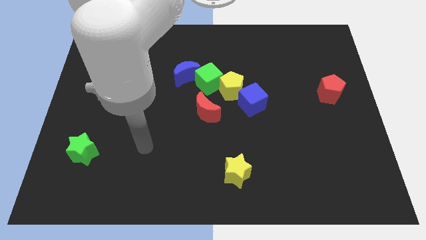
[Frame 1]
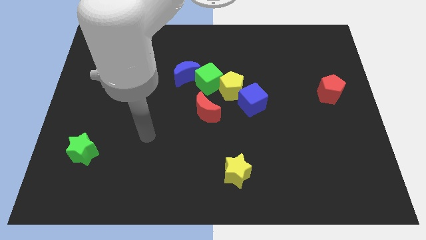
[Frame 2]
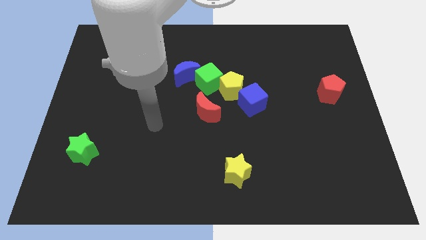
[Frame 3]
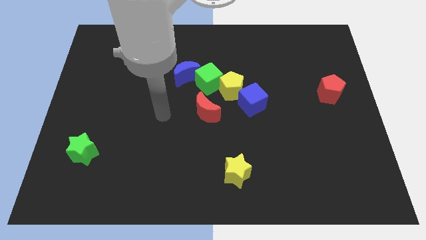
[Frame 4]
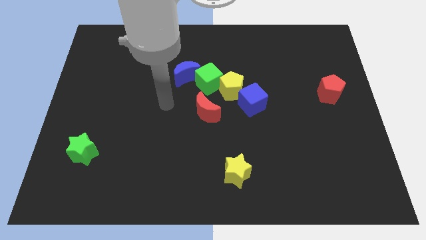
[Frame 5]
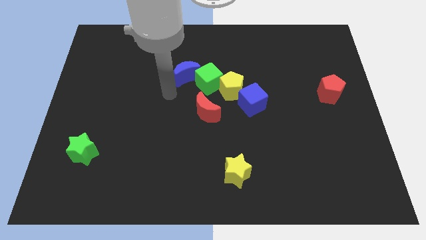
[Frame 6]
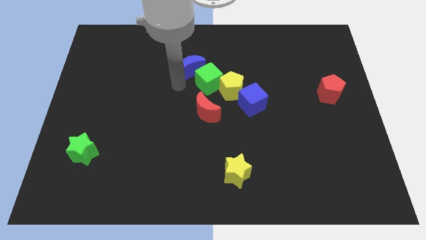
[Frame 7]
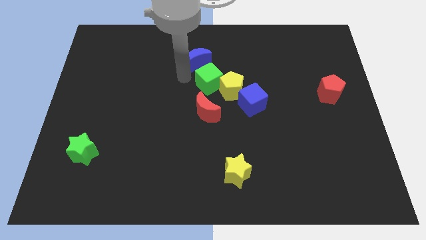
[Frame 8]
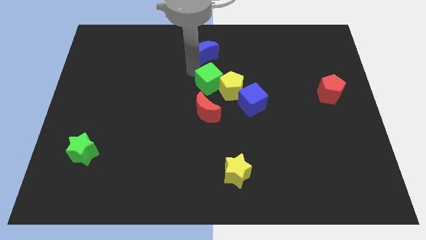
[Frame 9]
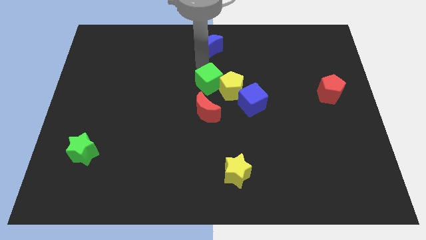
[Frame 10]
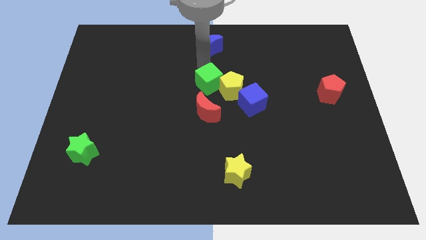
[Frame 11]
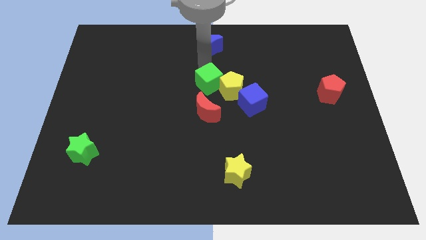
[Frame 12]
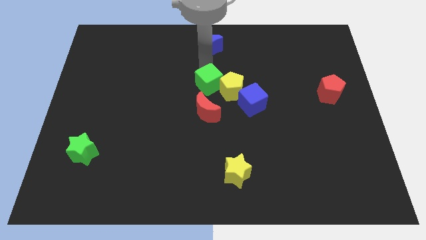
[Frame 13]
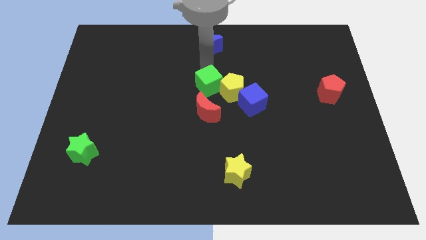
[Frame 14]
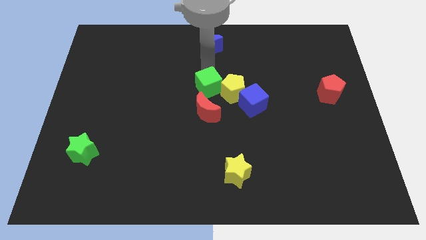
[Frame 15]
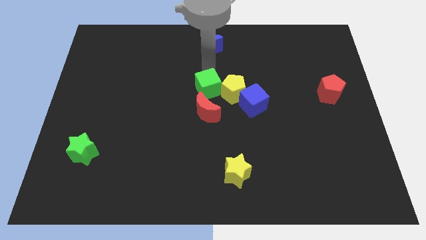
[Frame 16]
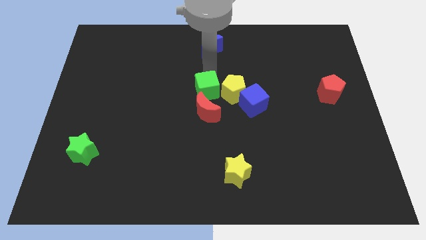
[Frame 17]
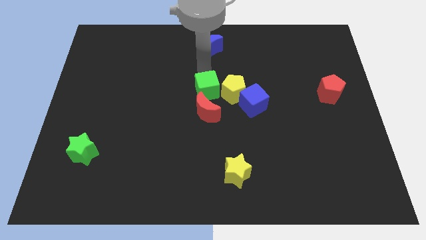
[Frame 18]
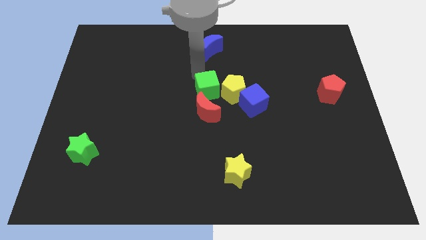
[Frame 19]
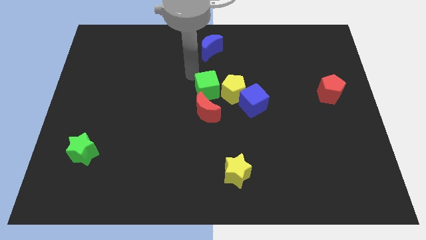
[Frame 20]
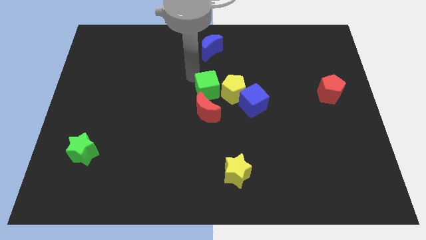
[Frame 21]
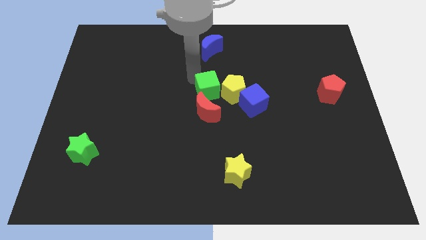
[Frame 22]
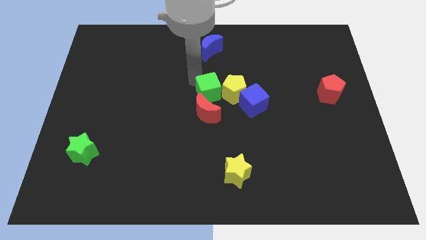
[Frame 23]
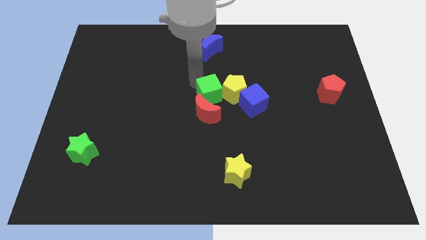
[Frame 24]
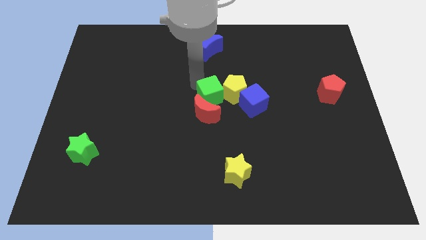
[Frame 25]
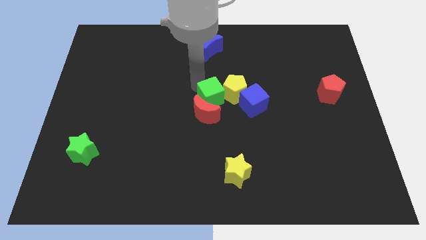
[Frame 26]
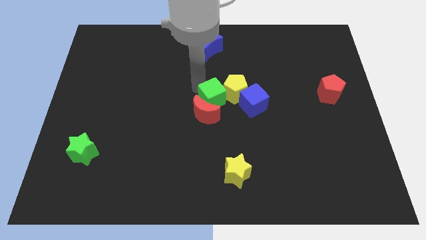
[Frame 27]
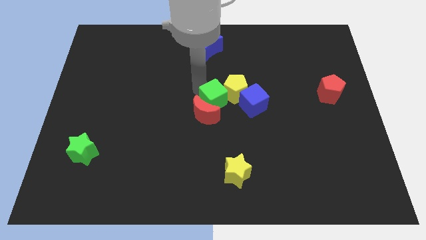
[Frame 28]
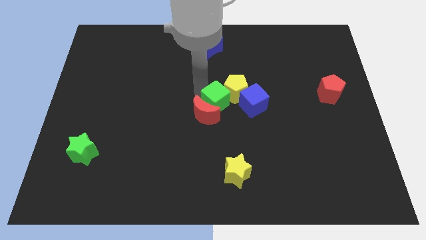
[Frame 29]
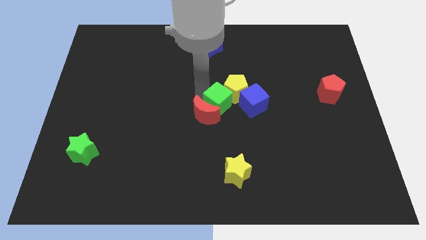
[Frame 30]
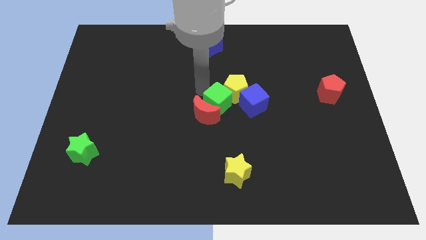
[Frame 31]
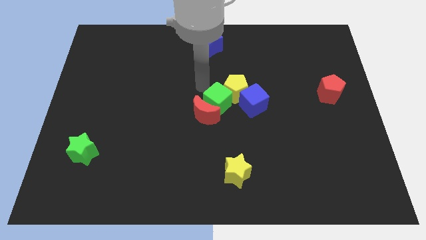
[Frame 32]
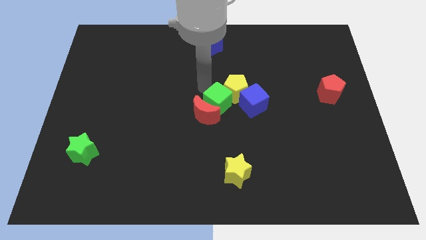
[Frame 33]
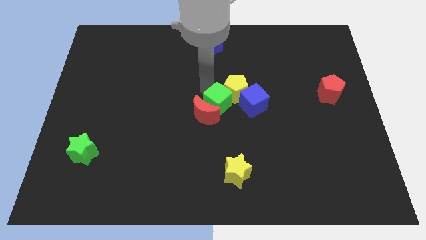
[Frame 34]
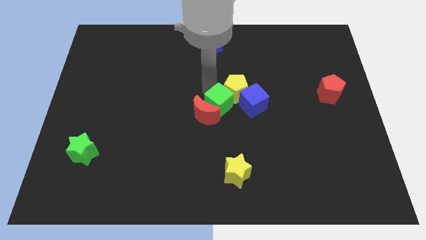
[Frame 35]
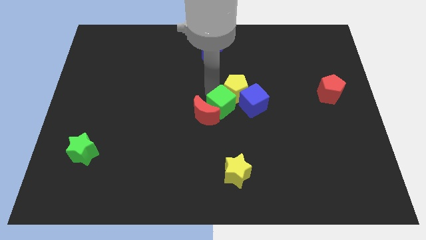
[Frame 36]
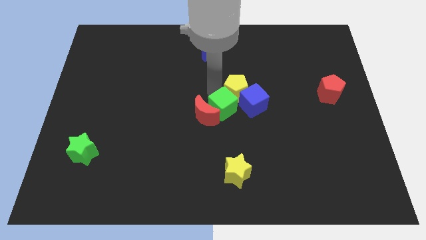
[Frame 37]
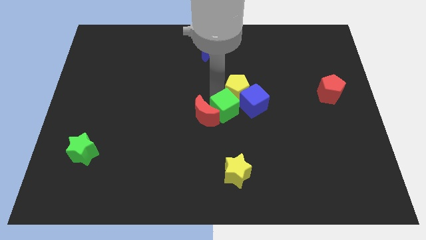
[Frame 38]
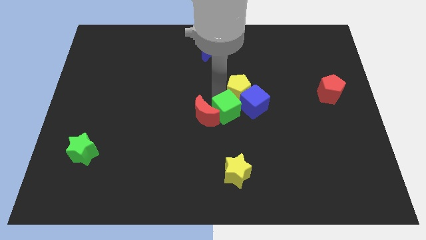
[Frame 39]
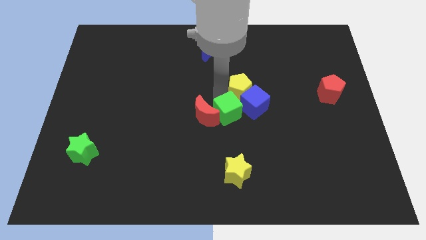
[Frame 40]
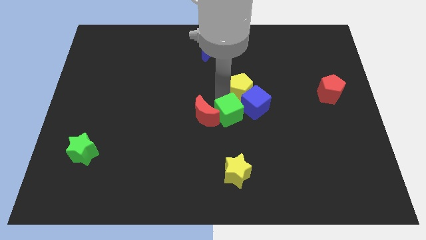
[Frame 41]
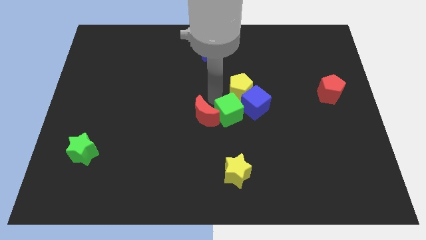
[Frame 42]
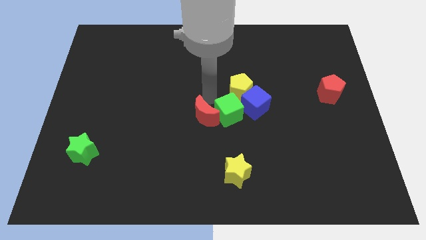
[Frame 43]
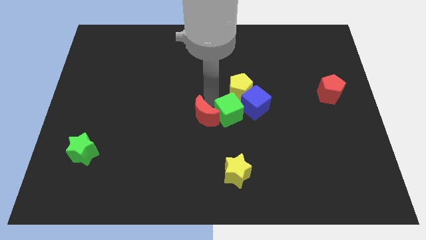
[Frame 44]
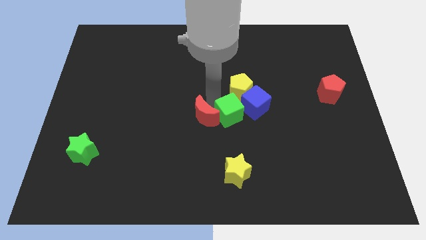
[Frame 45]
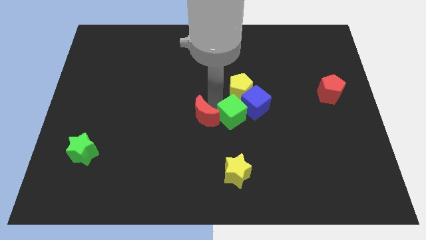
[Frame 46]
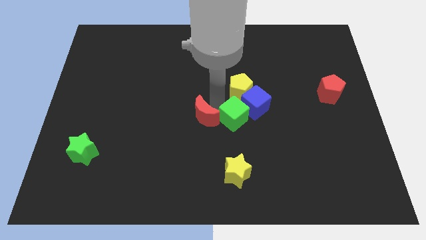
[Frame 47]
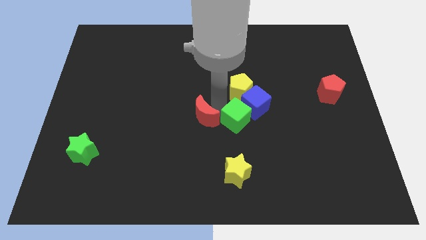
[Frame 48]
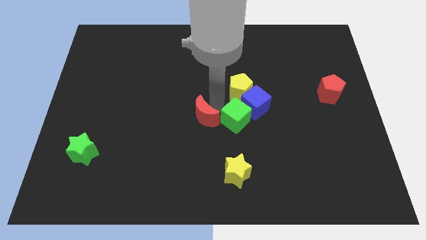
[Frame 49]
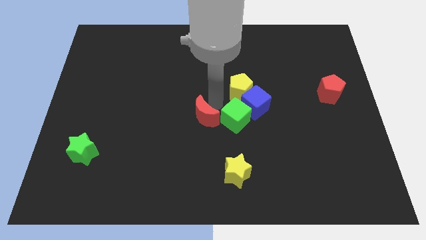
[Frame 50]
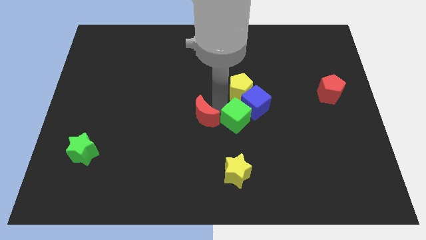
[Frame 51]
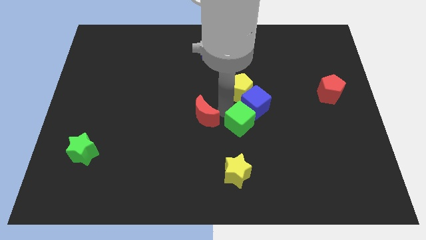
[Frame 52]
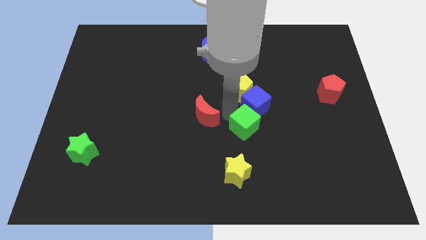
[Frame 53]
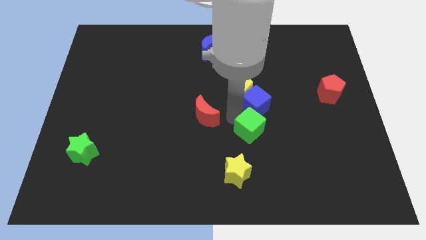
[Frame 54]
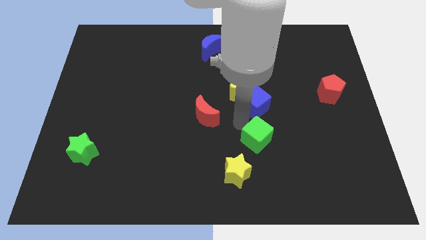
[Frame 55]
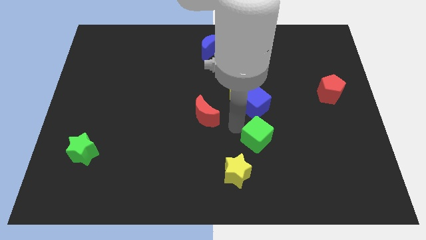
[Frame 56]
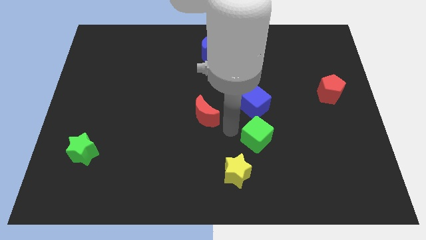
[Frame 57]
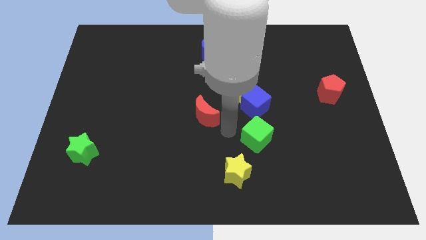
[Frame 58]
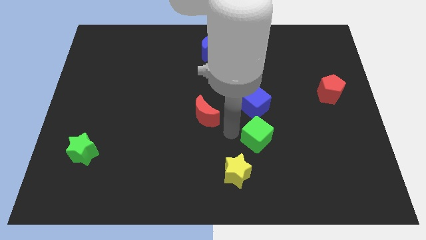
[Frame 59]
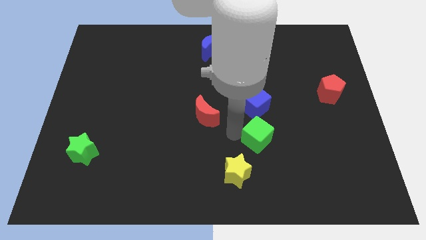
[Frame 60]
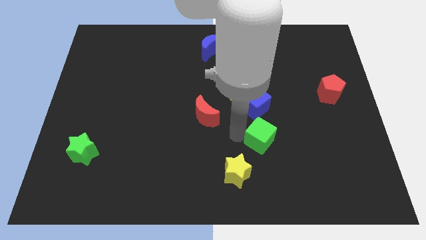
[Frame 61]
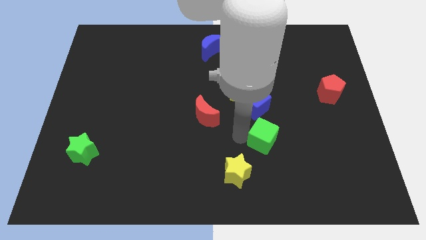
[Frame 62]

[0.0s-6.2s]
push the green cube down and right

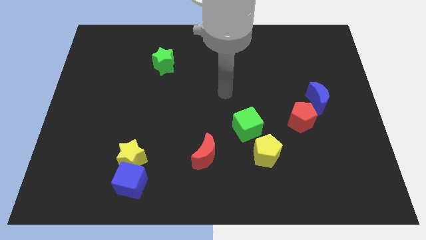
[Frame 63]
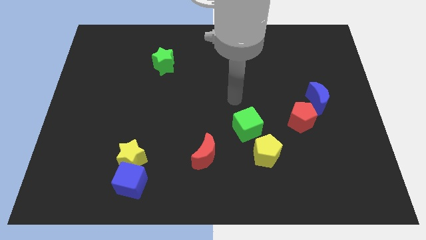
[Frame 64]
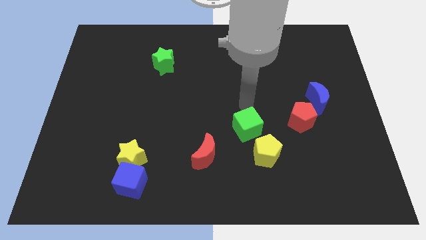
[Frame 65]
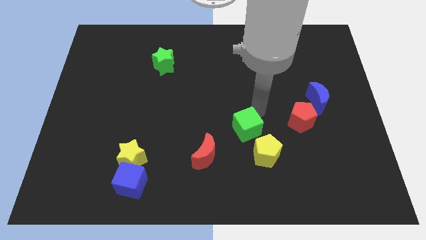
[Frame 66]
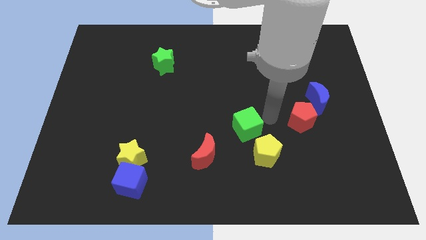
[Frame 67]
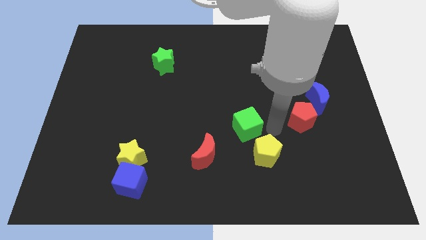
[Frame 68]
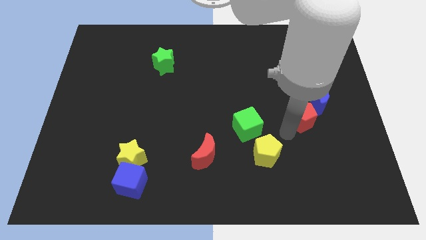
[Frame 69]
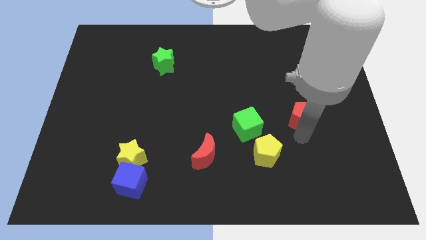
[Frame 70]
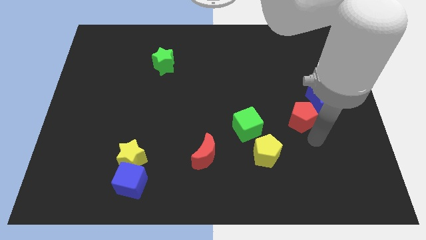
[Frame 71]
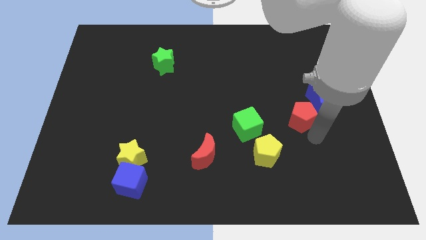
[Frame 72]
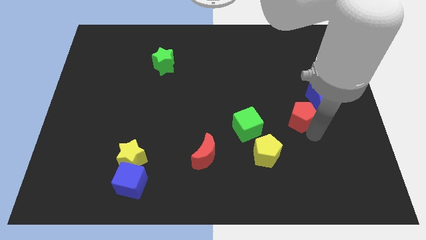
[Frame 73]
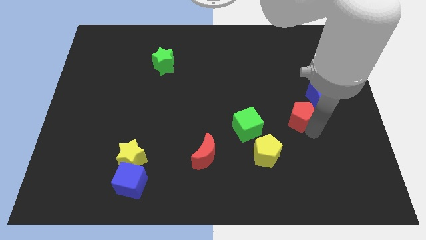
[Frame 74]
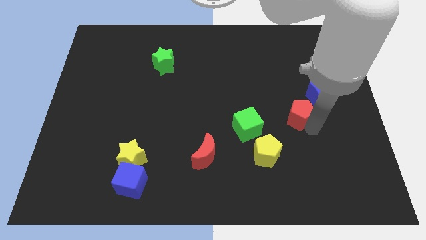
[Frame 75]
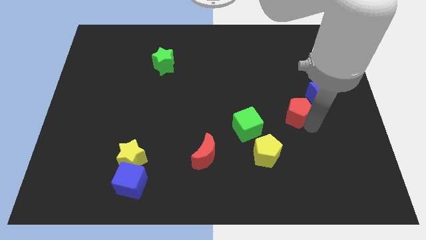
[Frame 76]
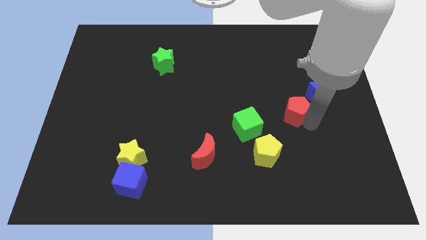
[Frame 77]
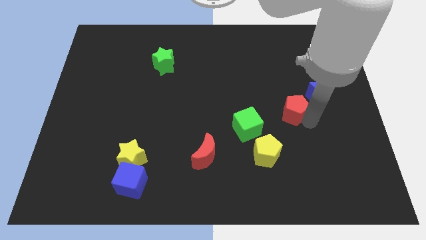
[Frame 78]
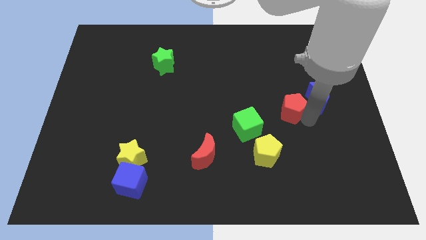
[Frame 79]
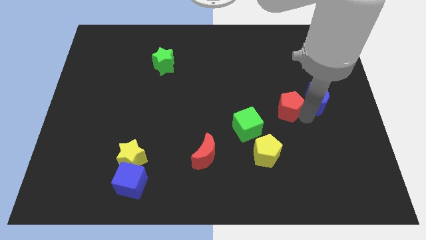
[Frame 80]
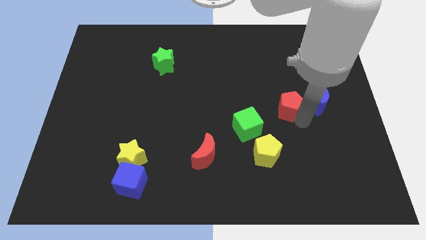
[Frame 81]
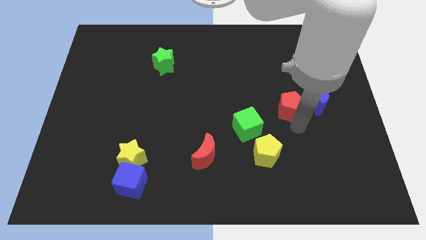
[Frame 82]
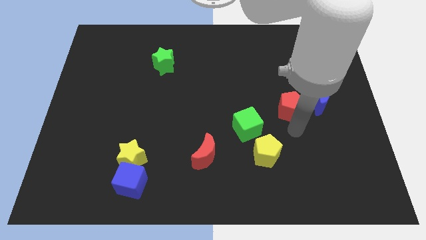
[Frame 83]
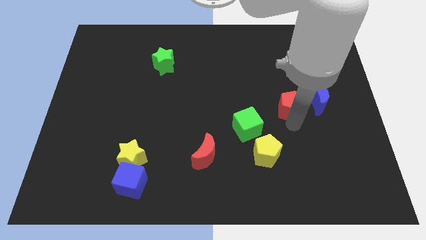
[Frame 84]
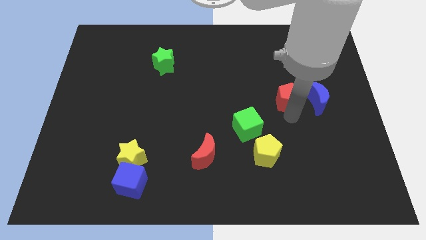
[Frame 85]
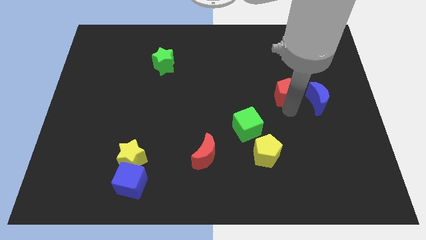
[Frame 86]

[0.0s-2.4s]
push the red pentagon a bit up
